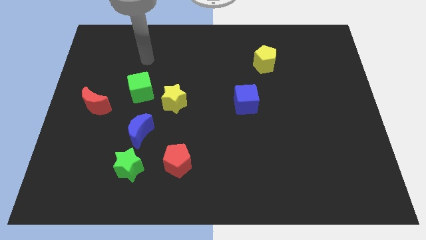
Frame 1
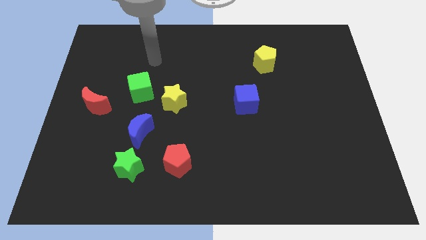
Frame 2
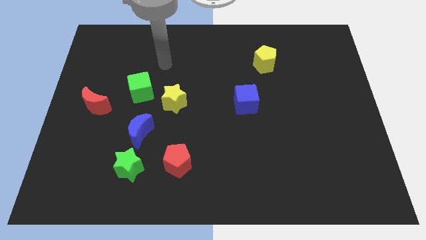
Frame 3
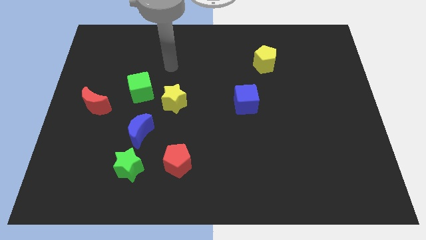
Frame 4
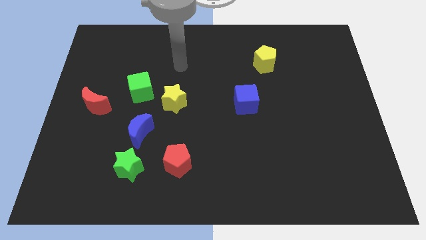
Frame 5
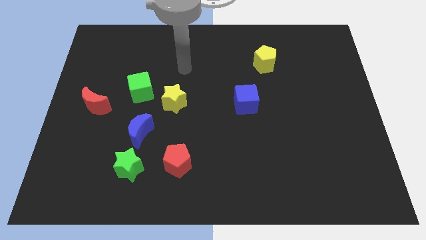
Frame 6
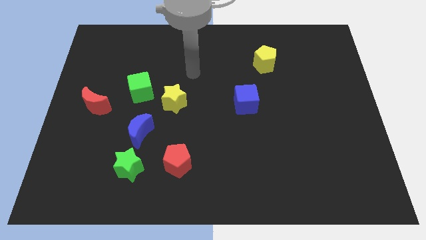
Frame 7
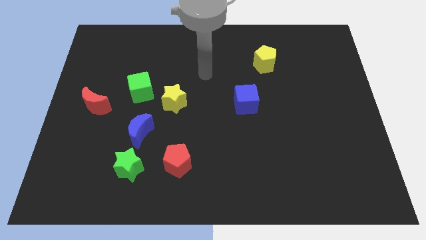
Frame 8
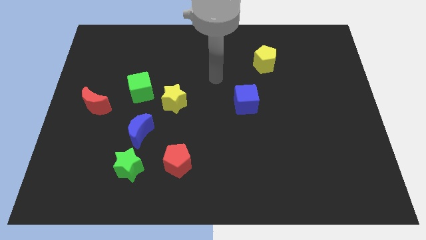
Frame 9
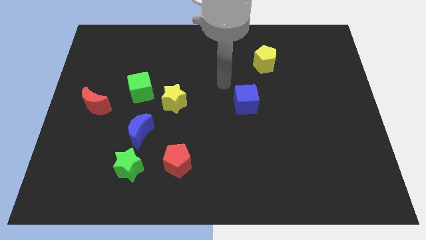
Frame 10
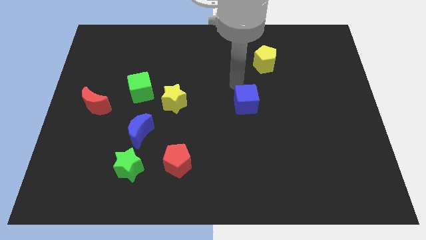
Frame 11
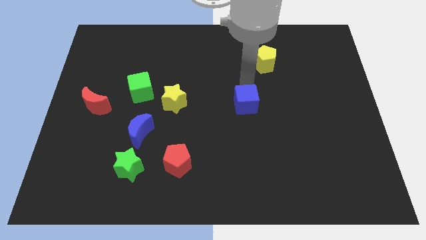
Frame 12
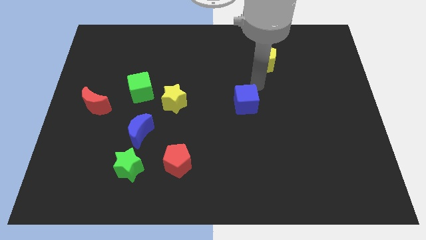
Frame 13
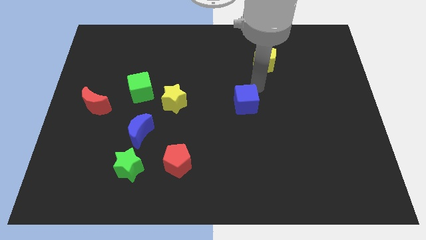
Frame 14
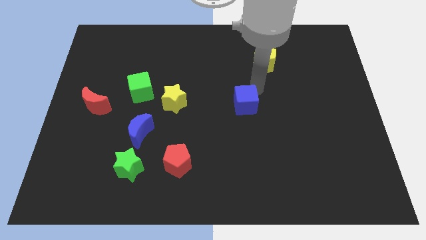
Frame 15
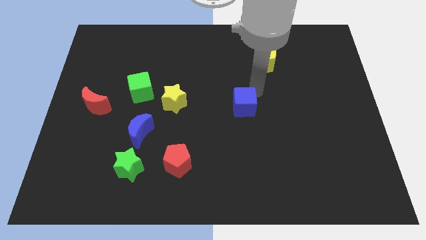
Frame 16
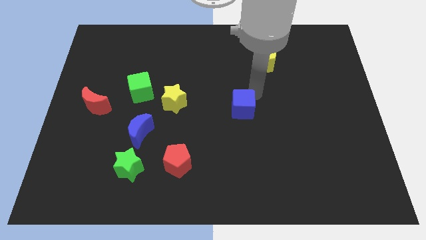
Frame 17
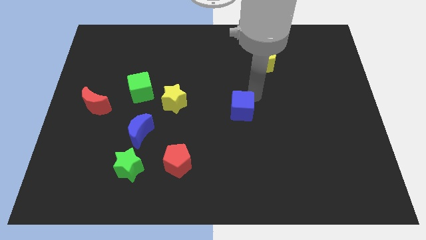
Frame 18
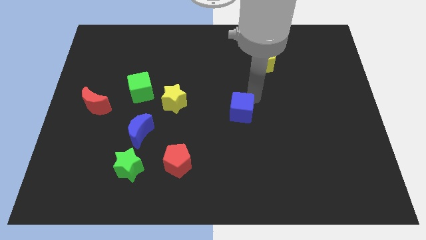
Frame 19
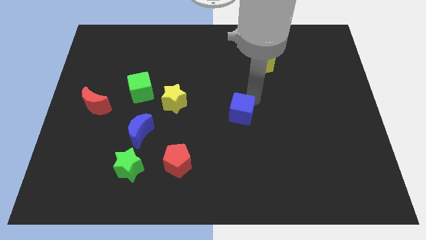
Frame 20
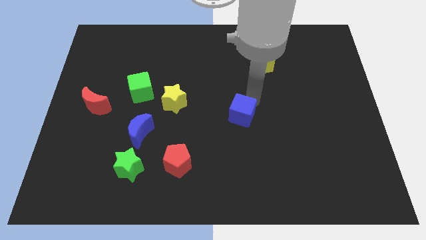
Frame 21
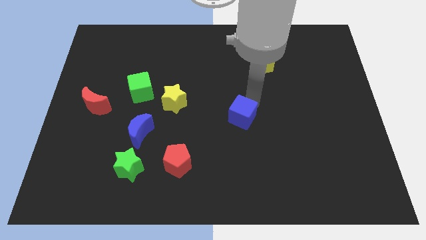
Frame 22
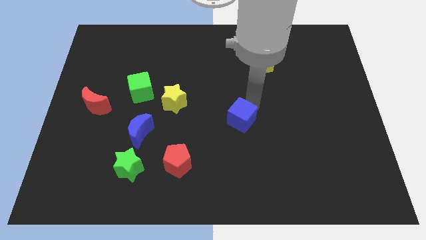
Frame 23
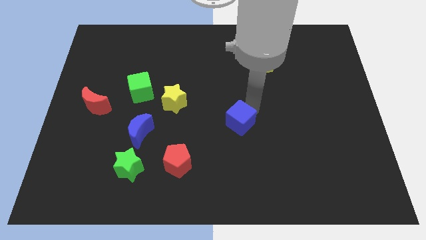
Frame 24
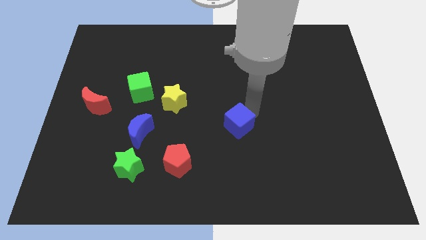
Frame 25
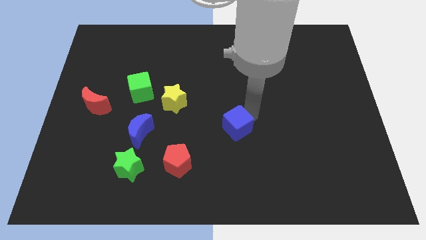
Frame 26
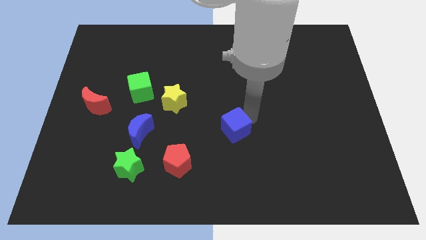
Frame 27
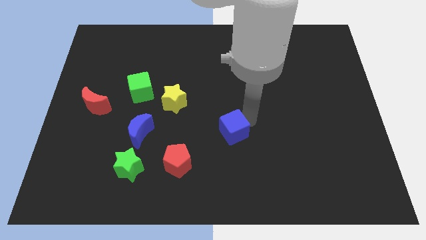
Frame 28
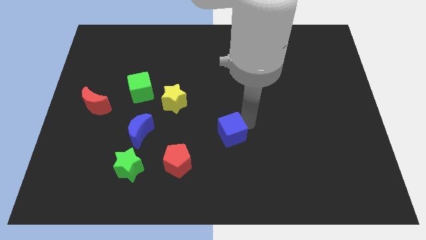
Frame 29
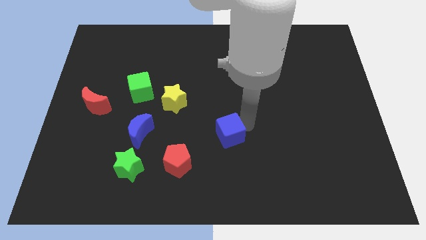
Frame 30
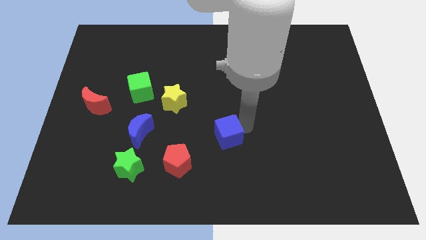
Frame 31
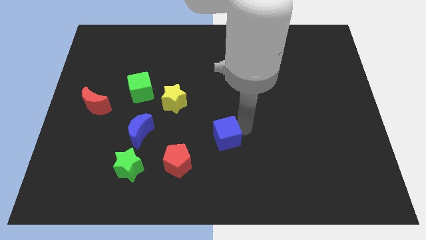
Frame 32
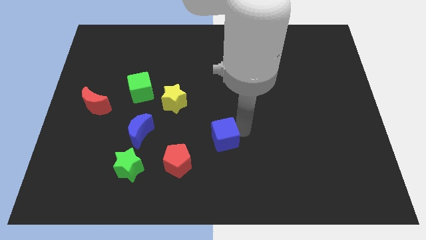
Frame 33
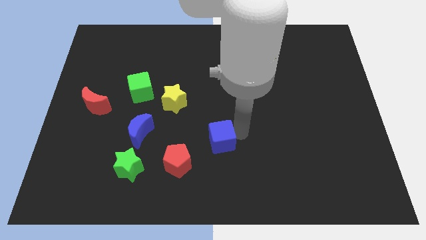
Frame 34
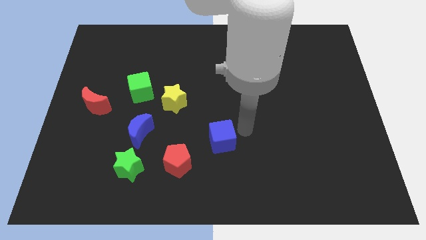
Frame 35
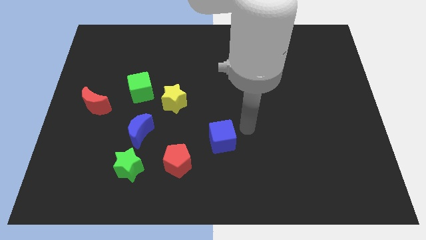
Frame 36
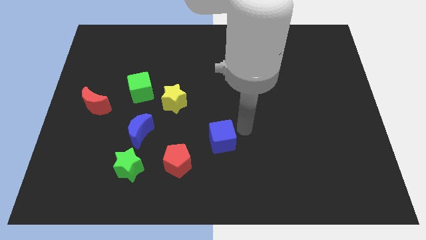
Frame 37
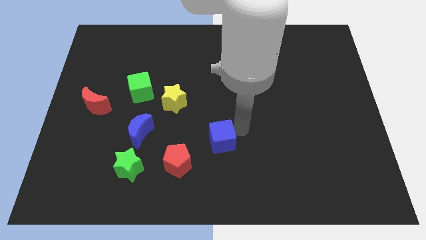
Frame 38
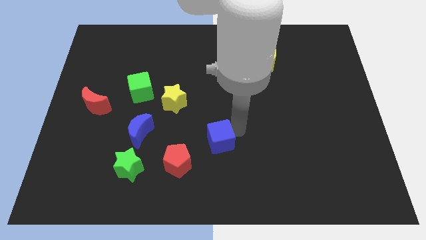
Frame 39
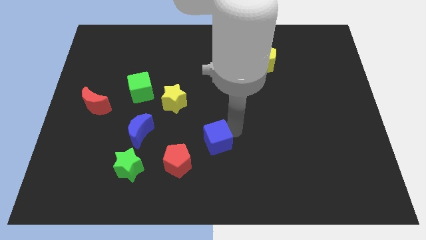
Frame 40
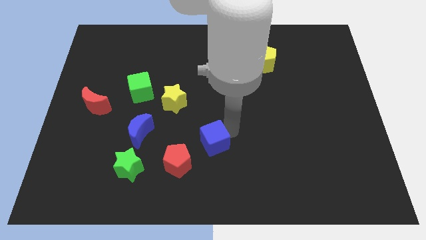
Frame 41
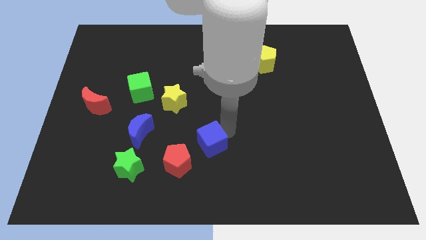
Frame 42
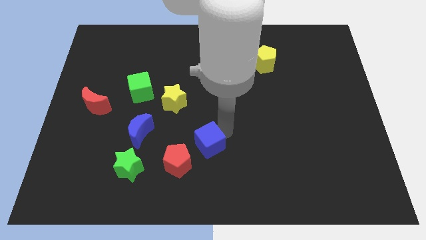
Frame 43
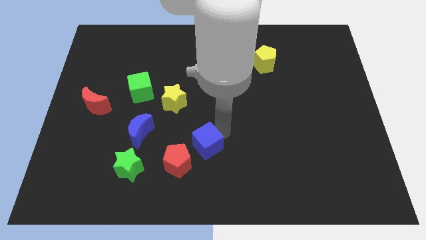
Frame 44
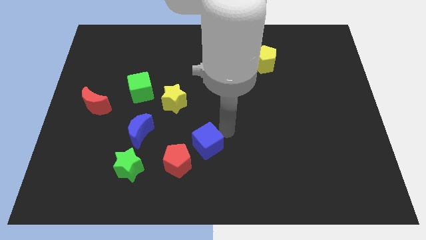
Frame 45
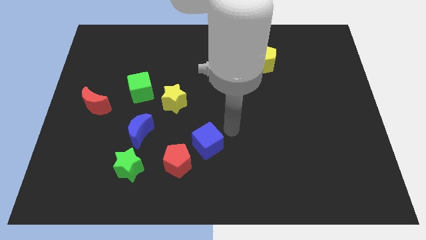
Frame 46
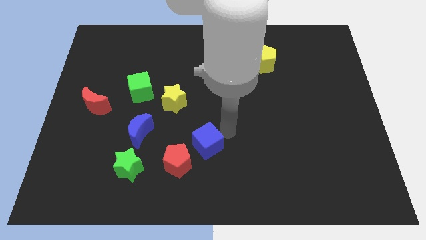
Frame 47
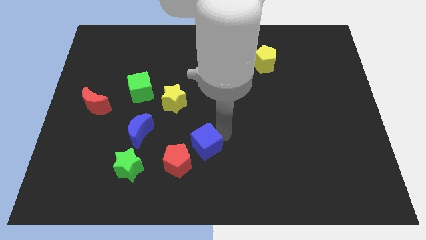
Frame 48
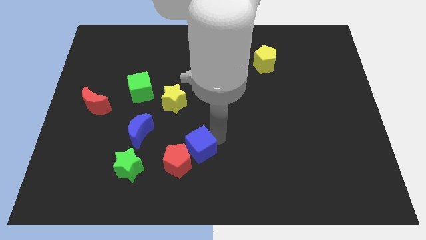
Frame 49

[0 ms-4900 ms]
put the blue cube close to the red pentagon

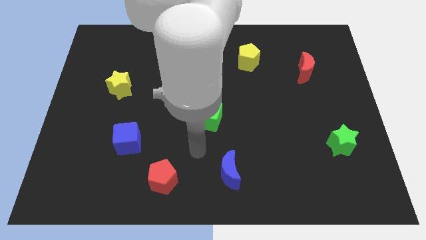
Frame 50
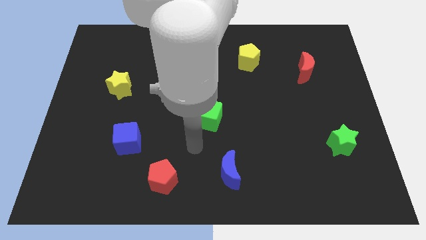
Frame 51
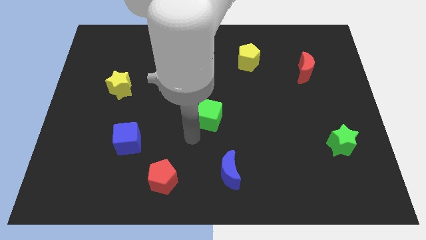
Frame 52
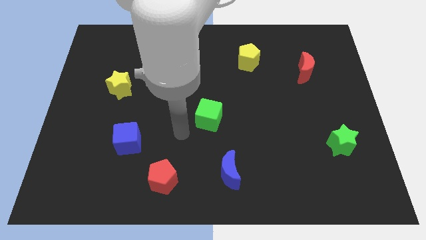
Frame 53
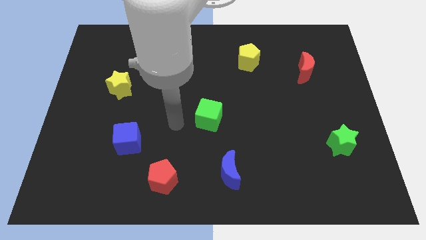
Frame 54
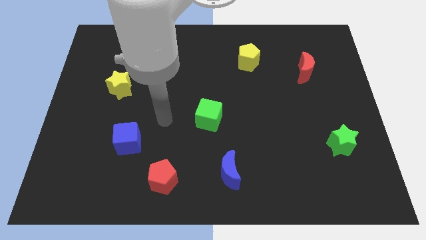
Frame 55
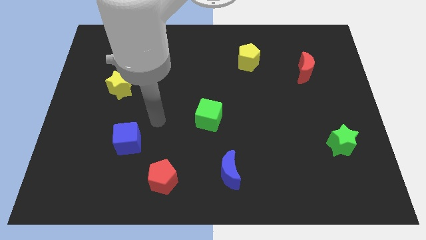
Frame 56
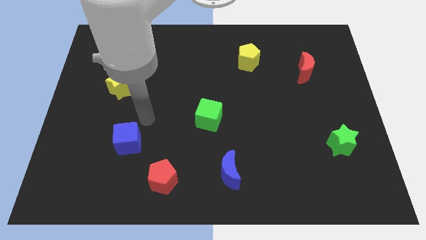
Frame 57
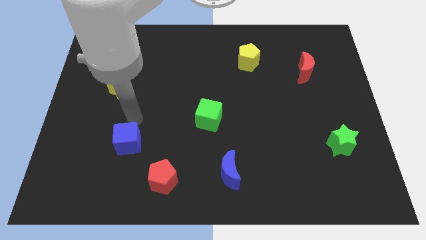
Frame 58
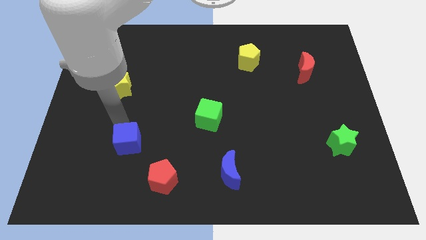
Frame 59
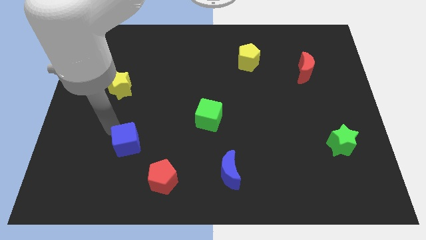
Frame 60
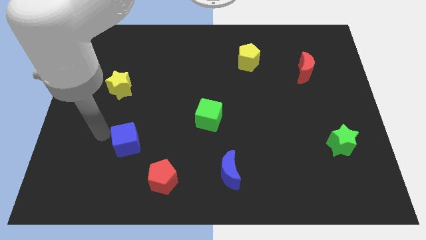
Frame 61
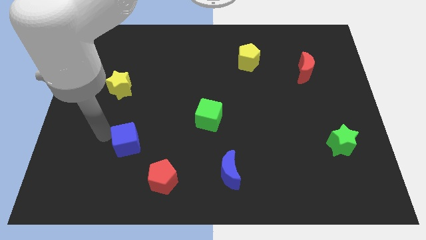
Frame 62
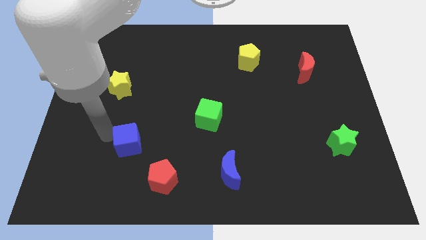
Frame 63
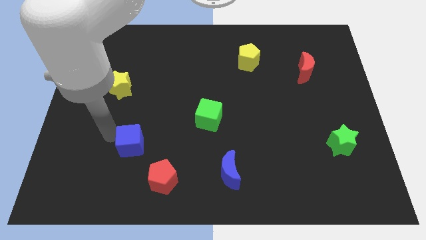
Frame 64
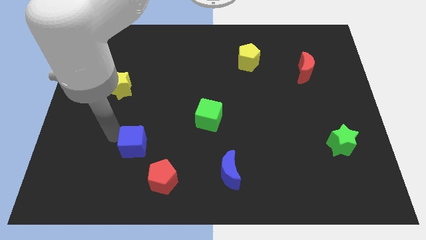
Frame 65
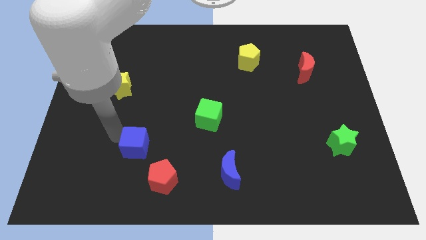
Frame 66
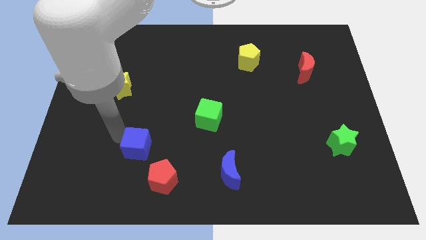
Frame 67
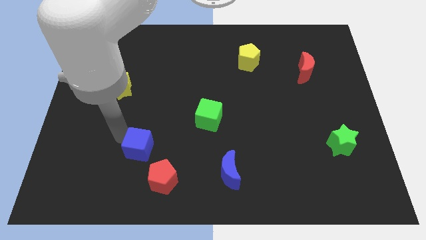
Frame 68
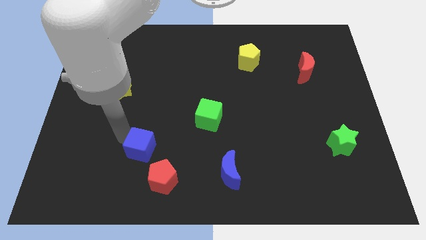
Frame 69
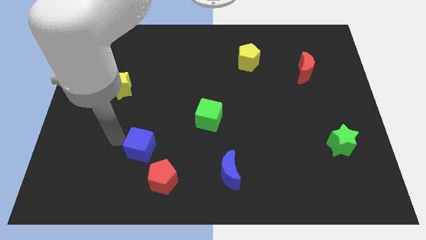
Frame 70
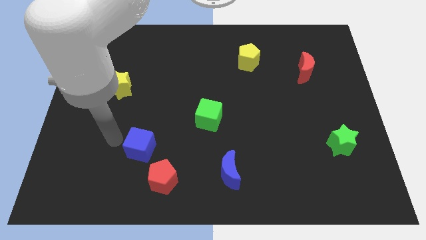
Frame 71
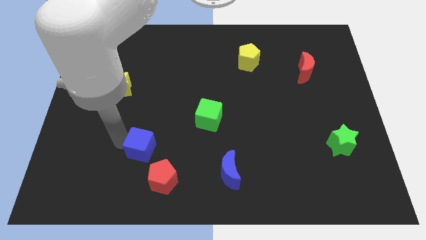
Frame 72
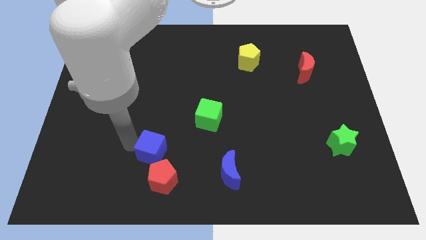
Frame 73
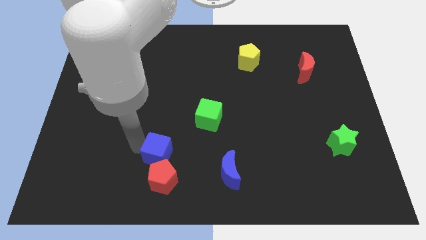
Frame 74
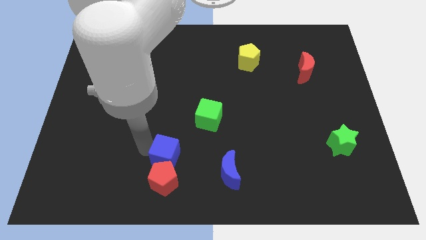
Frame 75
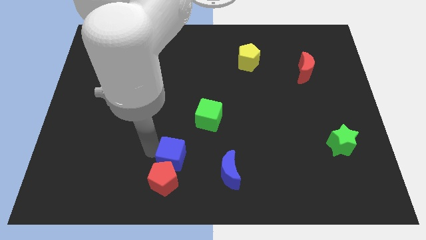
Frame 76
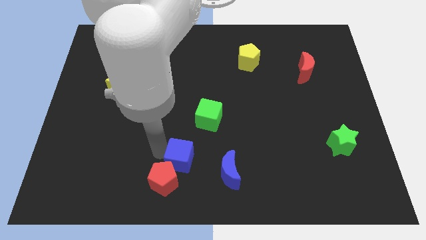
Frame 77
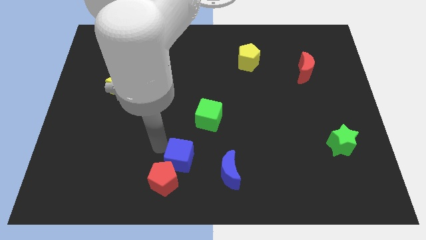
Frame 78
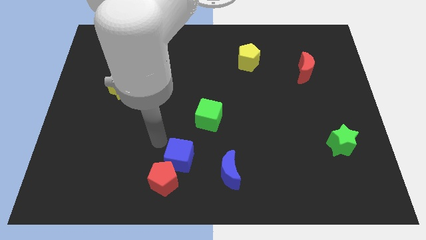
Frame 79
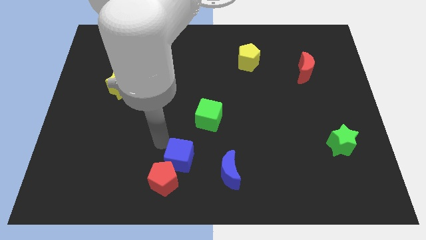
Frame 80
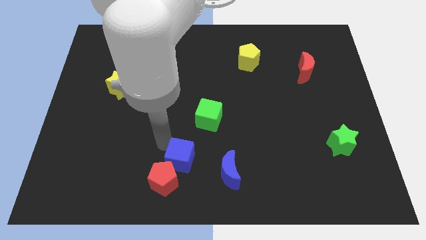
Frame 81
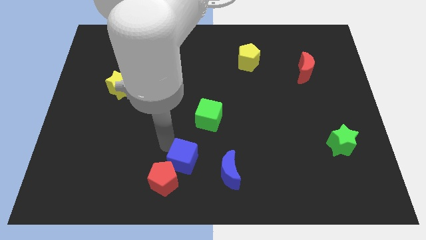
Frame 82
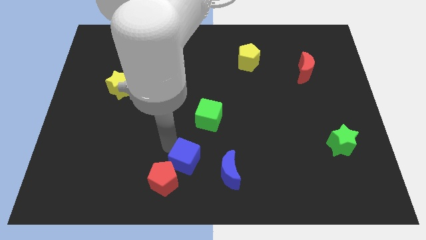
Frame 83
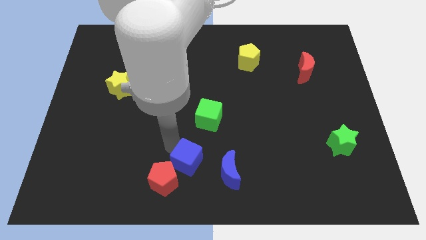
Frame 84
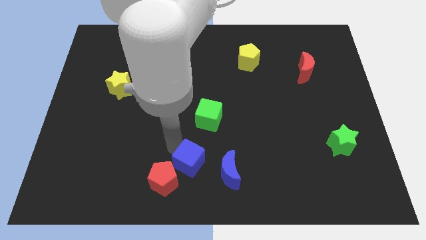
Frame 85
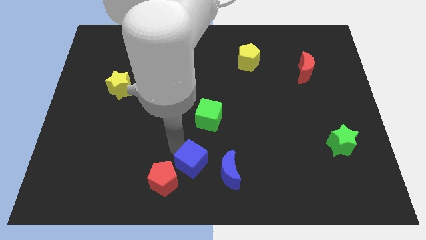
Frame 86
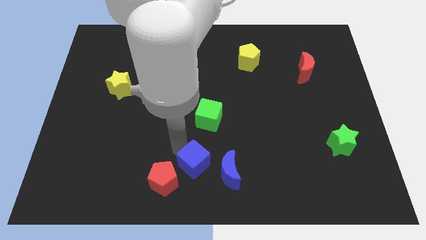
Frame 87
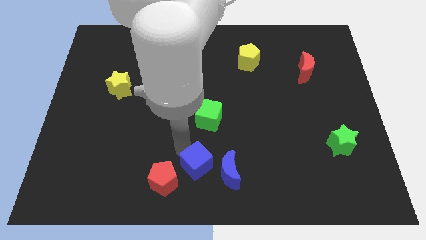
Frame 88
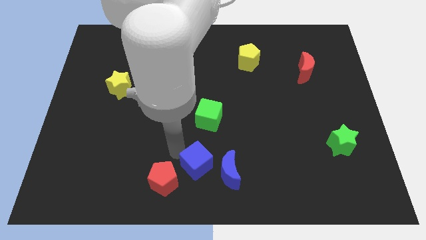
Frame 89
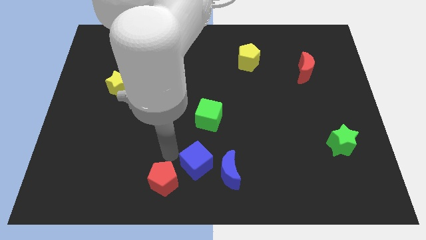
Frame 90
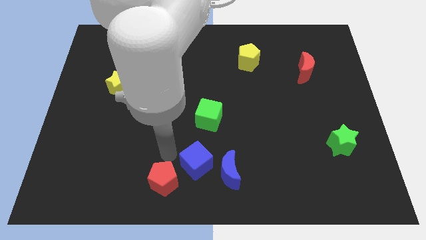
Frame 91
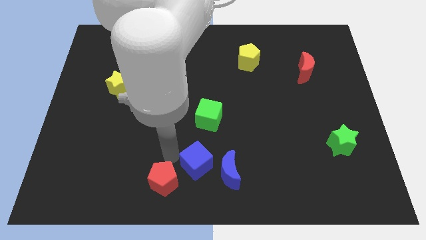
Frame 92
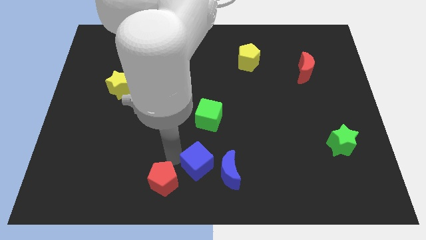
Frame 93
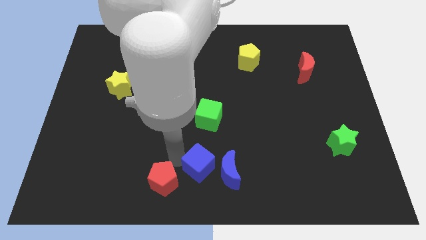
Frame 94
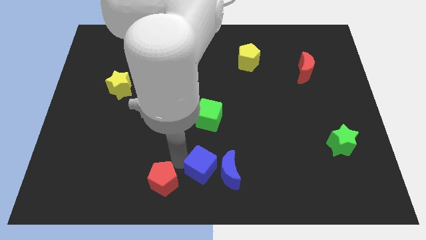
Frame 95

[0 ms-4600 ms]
move the blue cube next to the blue moon
